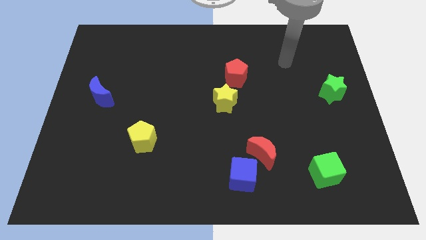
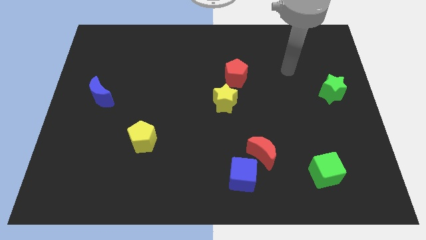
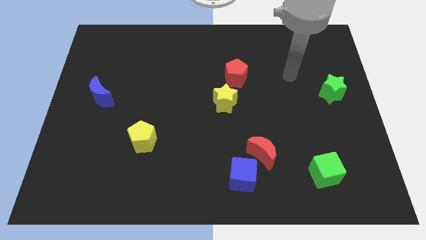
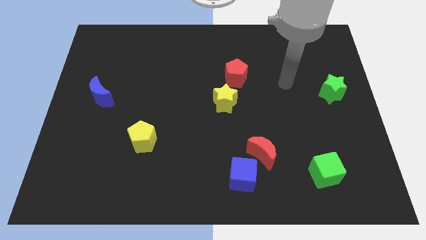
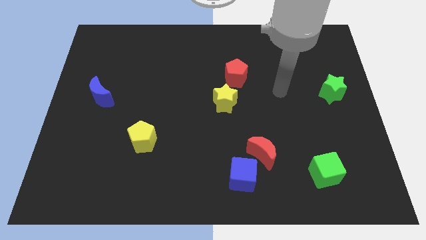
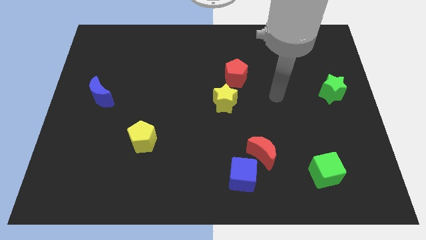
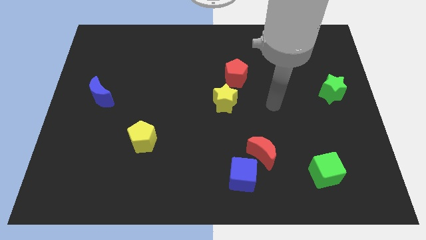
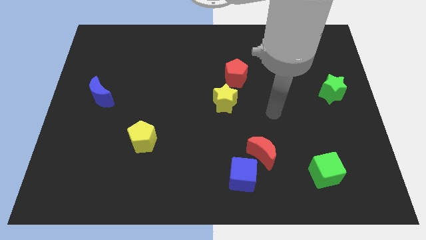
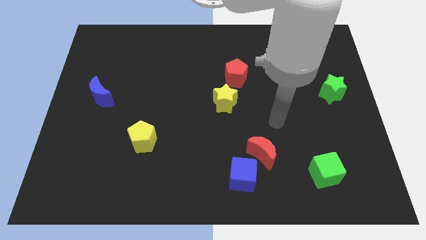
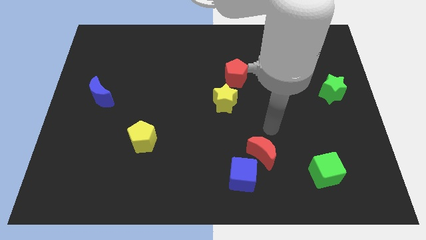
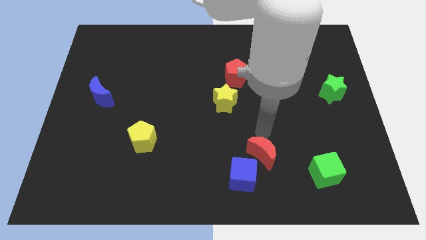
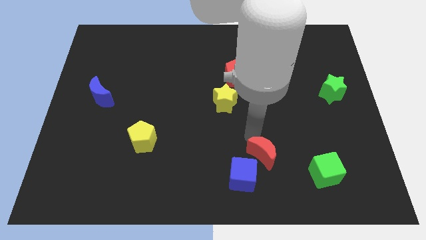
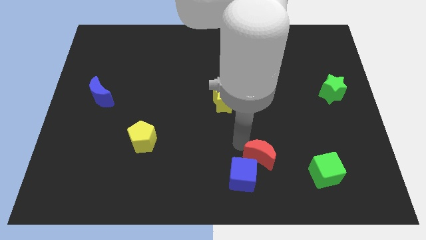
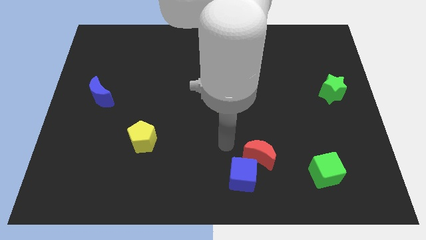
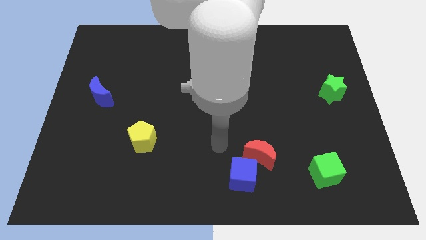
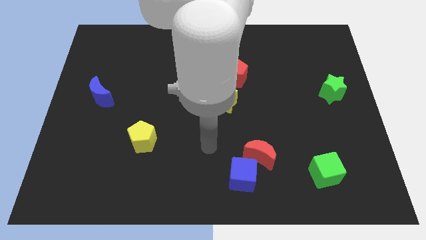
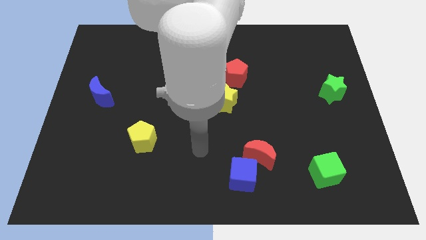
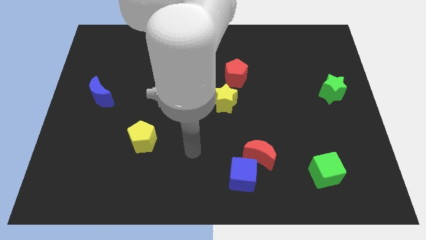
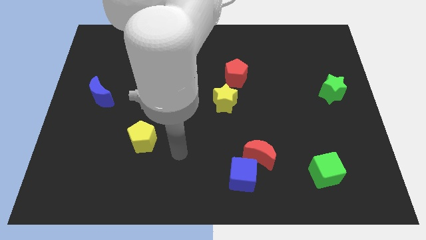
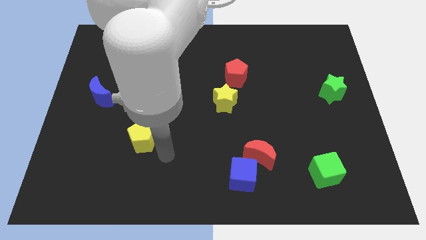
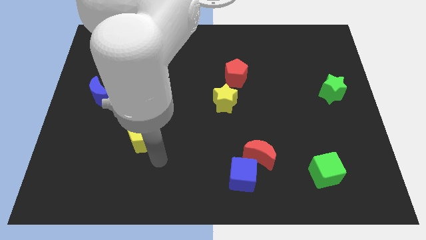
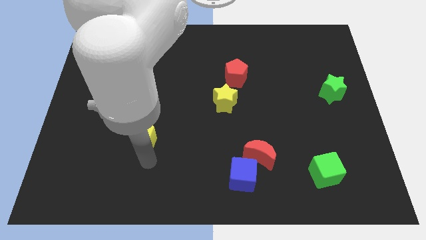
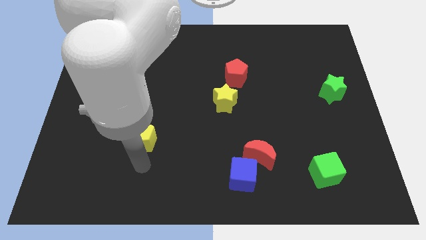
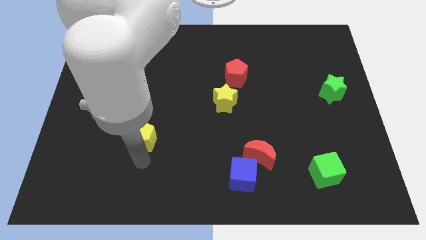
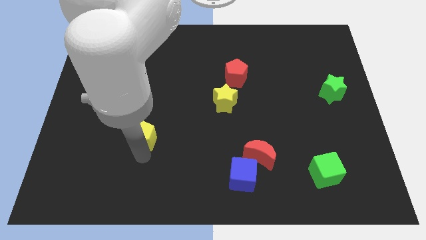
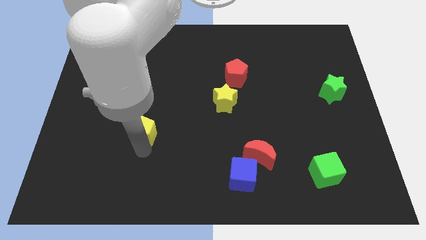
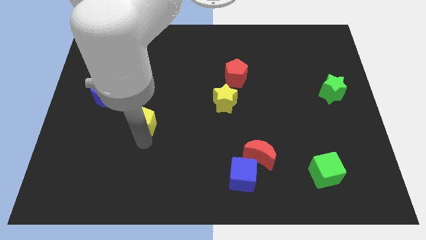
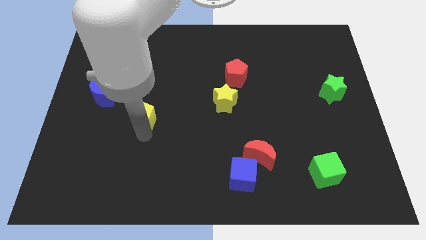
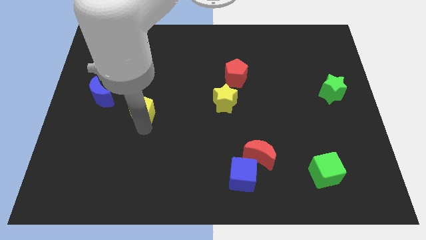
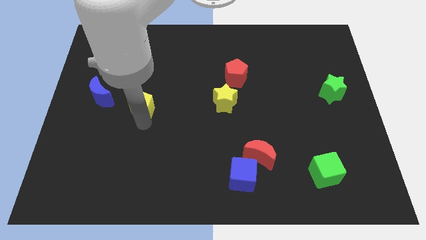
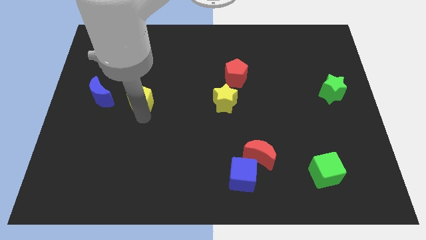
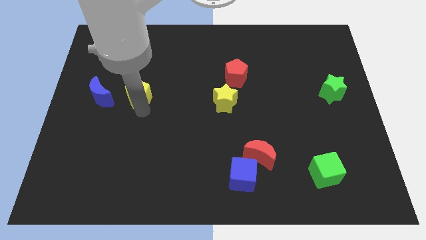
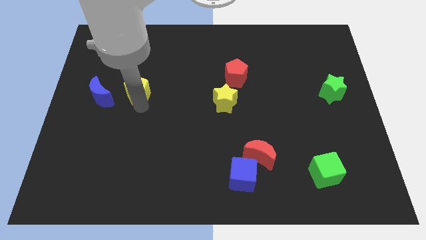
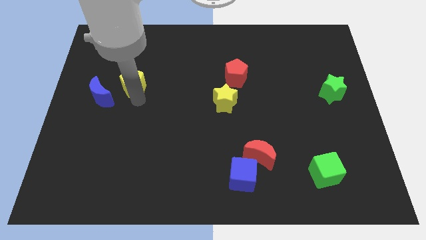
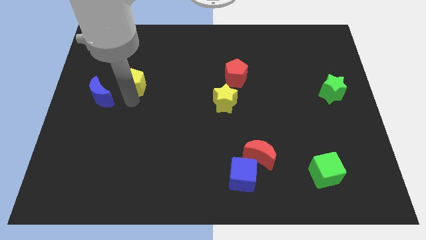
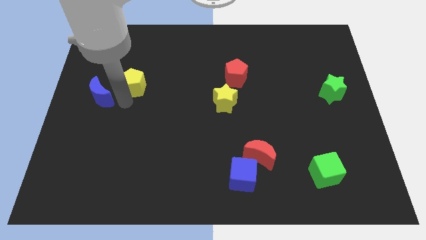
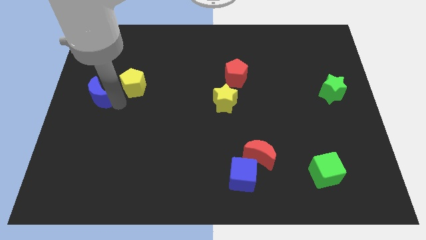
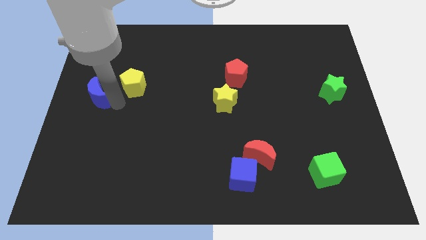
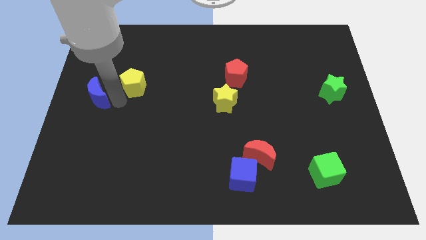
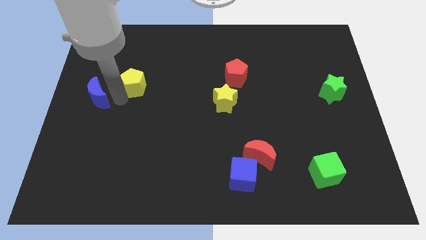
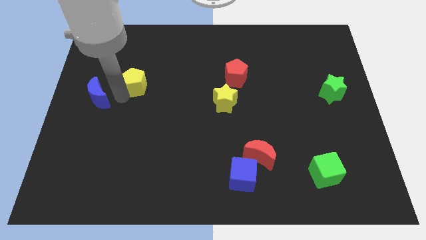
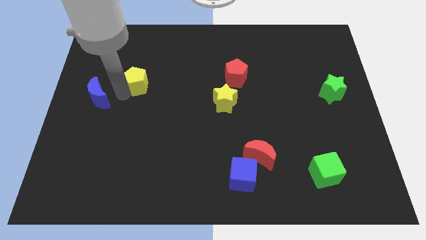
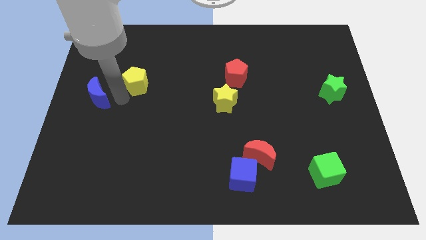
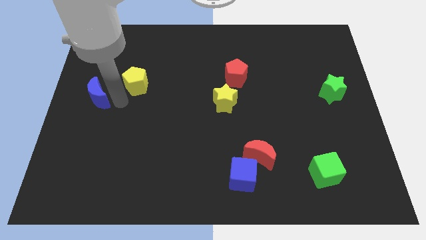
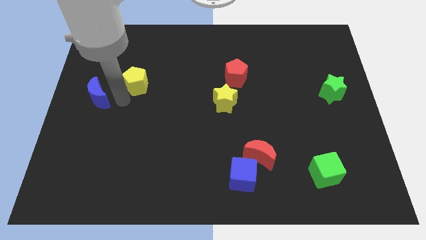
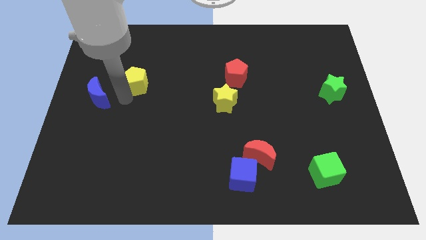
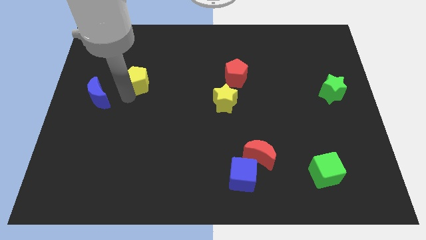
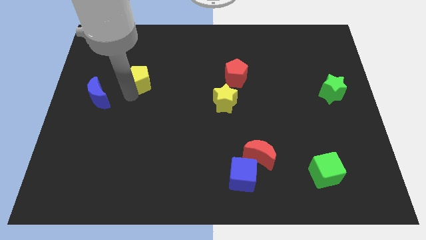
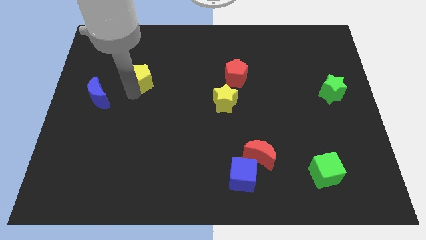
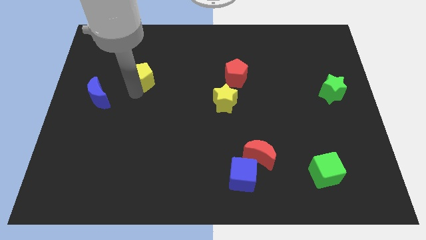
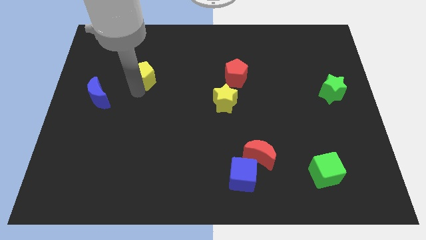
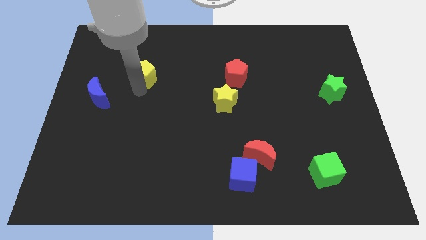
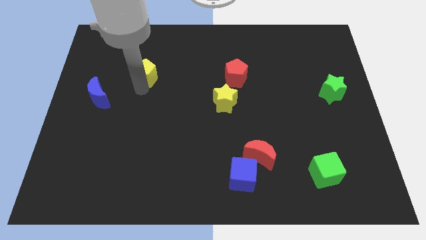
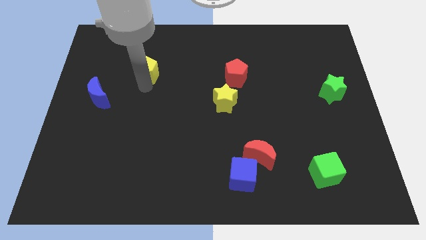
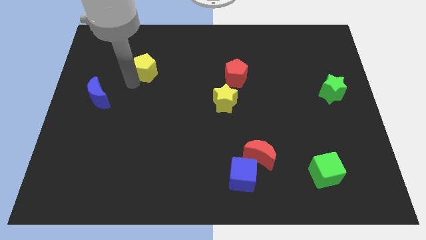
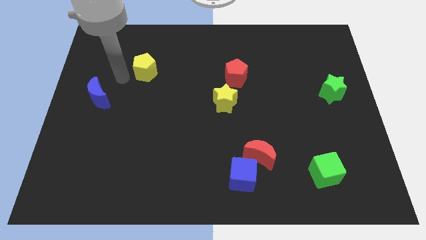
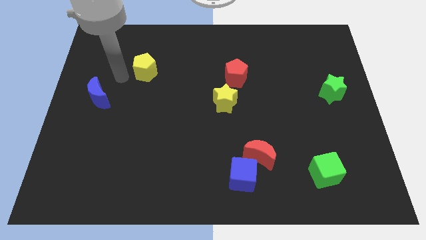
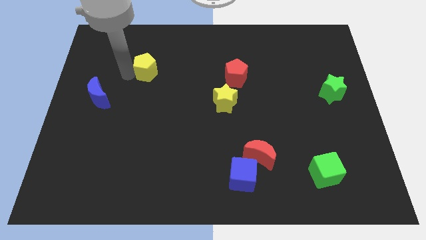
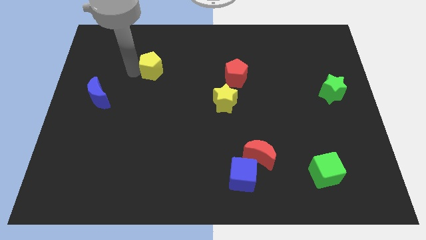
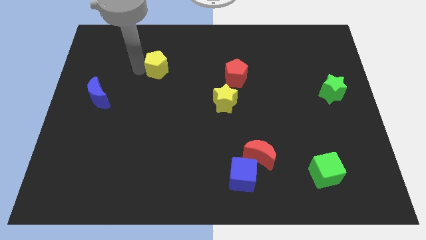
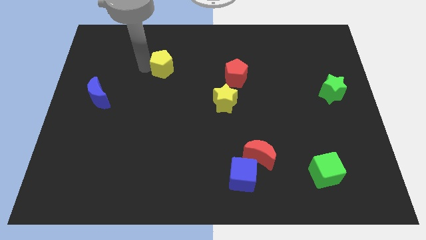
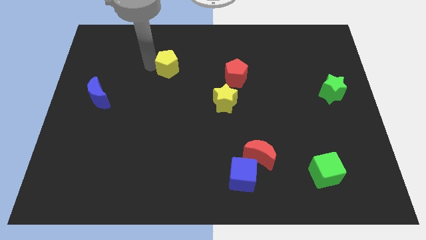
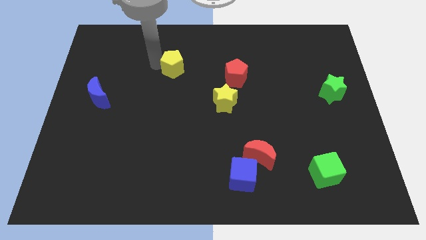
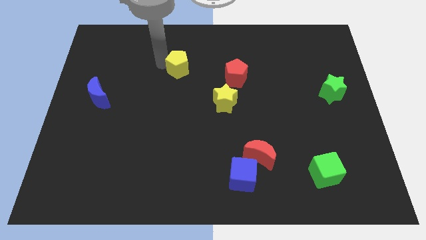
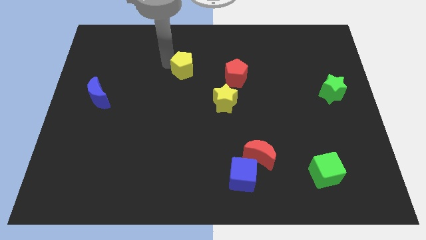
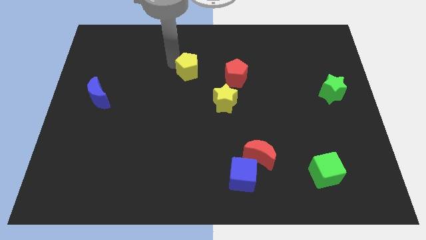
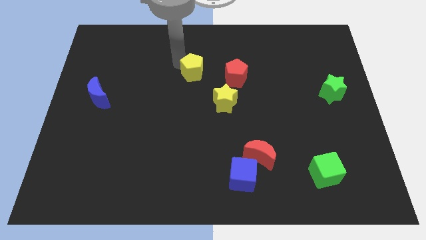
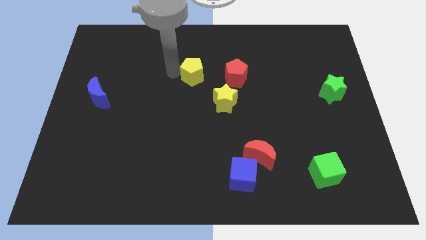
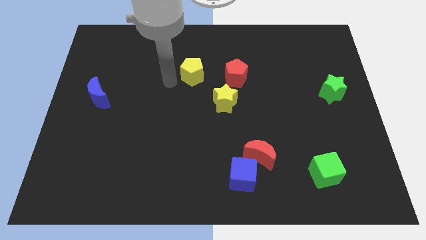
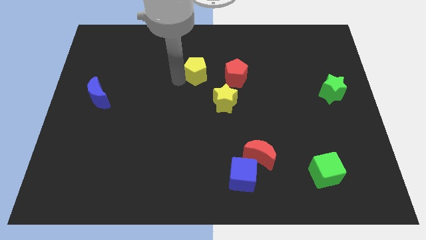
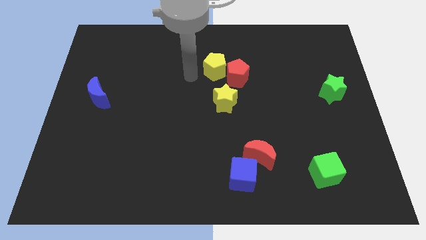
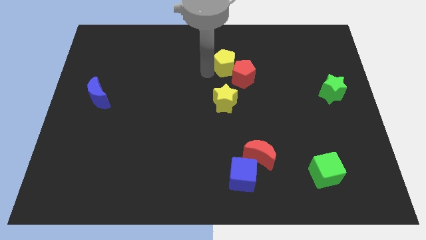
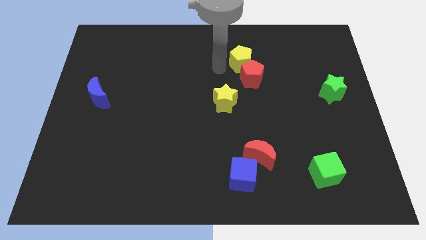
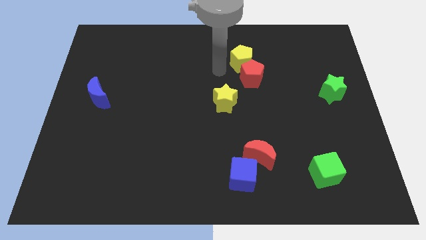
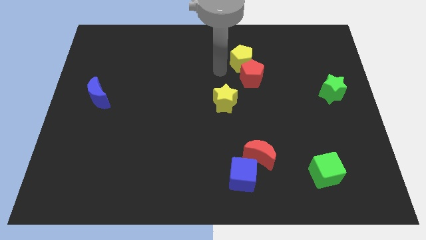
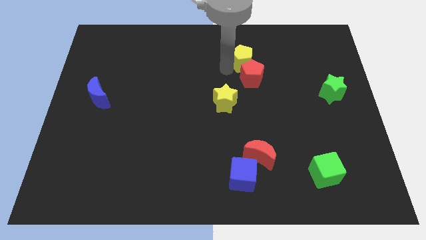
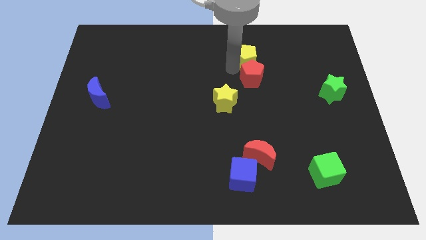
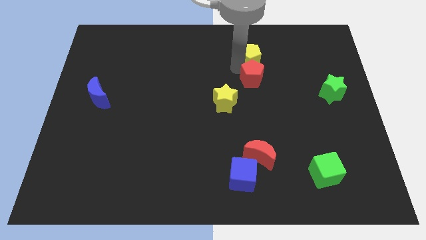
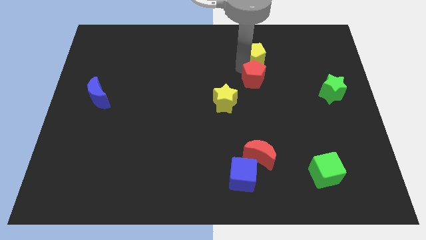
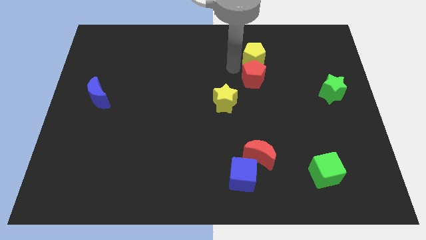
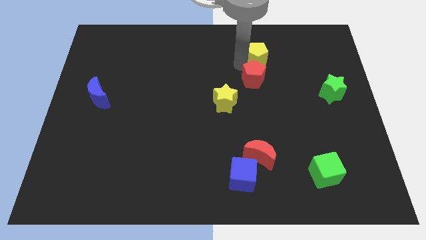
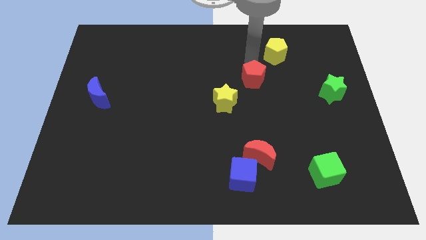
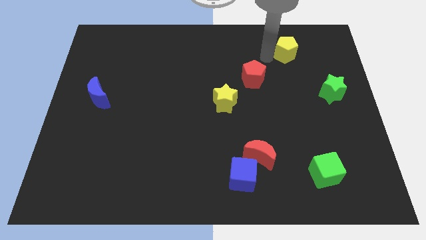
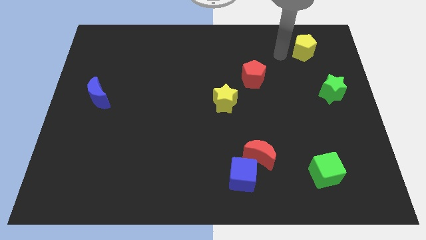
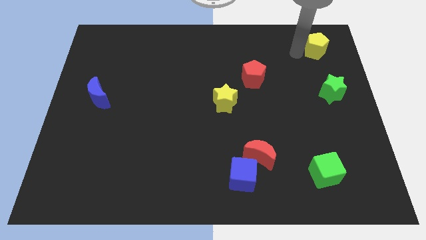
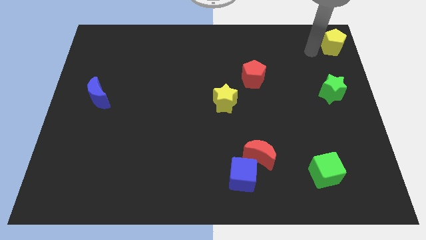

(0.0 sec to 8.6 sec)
put the yellow pentagon to the top right corner
